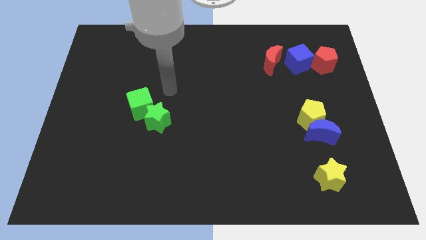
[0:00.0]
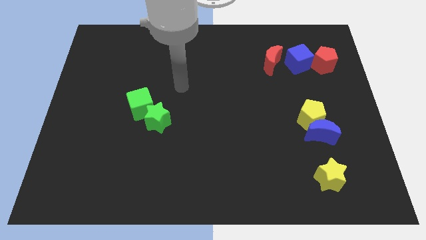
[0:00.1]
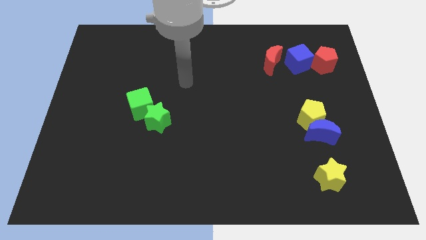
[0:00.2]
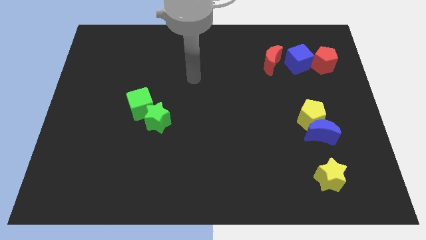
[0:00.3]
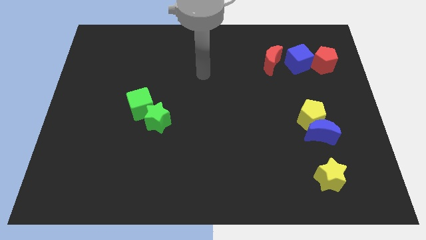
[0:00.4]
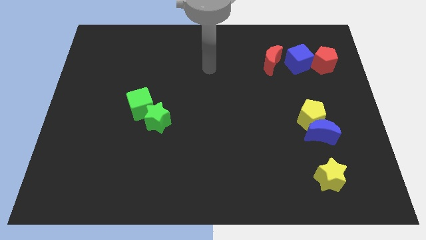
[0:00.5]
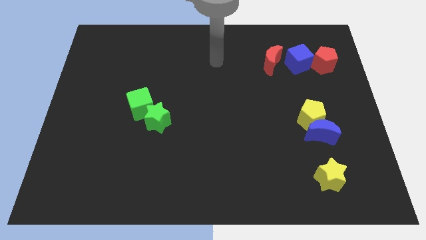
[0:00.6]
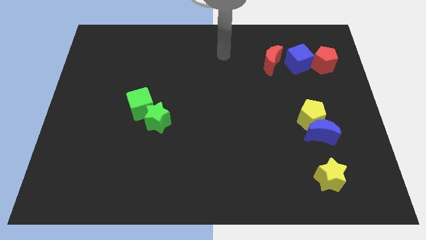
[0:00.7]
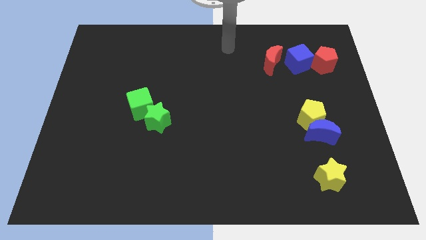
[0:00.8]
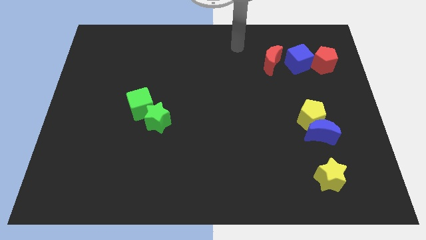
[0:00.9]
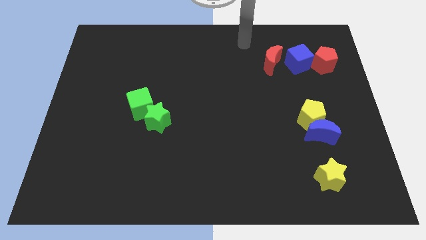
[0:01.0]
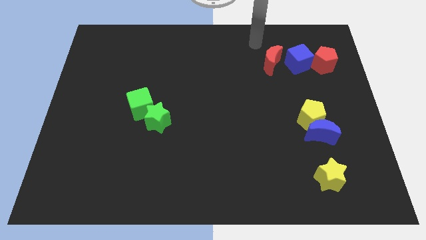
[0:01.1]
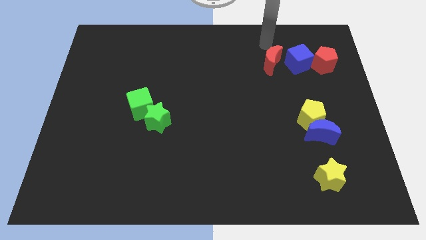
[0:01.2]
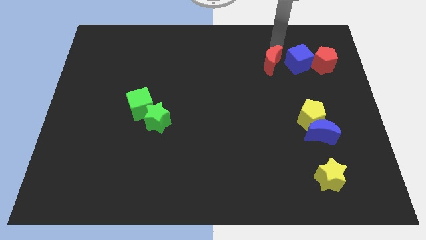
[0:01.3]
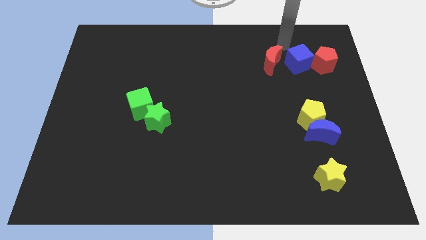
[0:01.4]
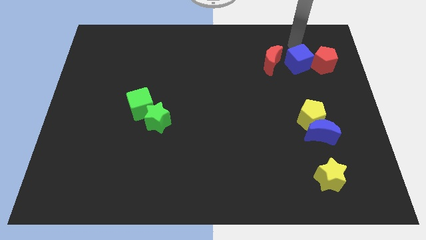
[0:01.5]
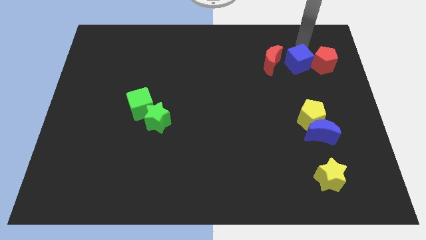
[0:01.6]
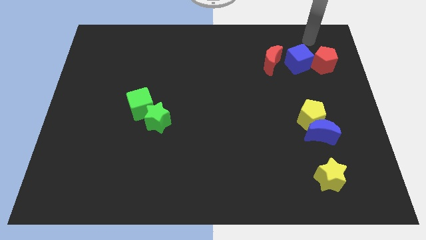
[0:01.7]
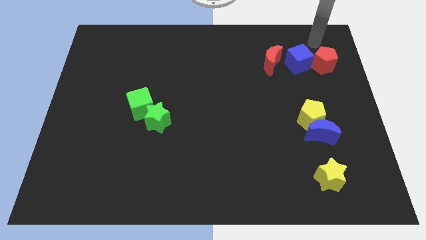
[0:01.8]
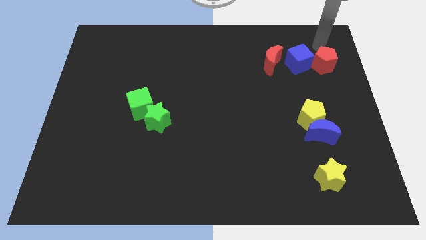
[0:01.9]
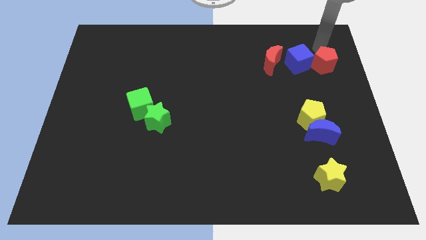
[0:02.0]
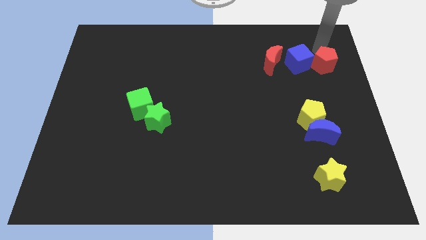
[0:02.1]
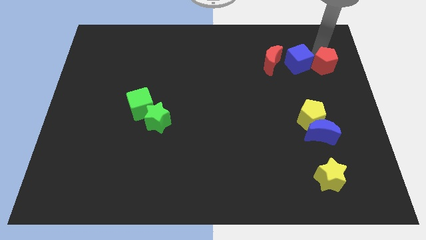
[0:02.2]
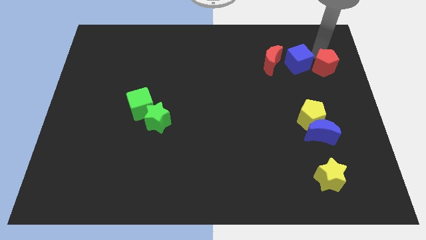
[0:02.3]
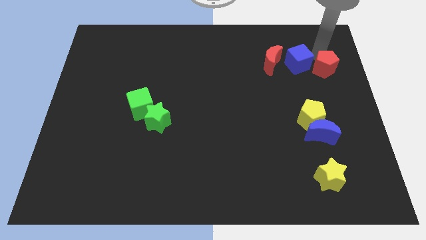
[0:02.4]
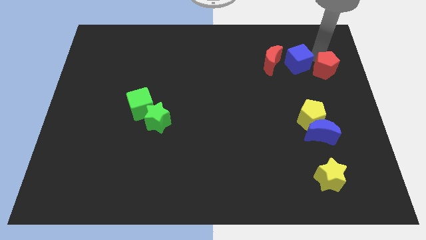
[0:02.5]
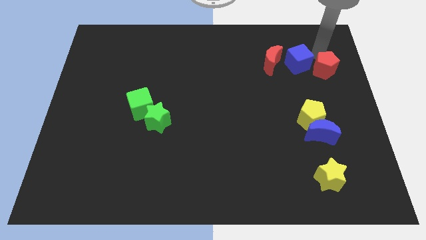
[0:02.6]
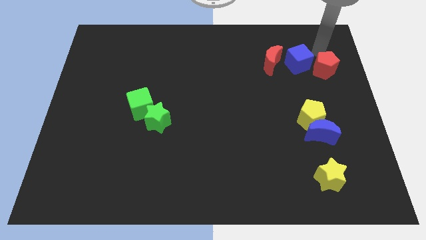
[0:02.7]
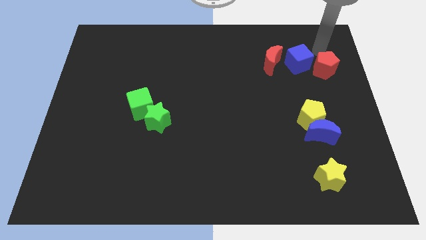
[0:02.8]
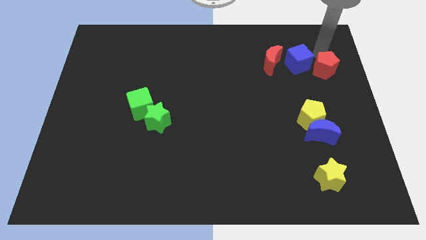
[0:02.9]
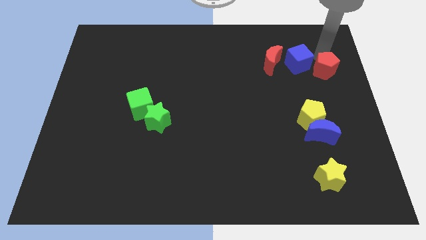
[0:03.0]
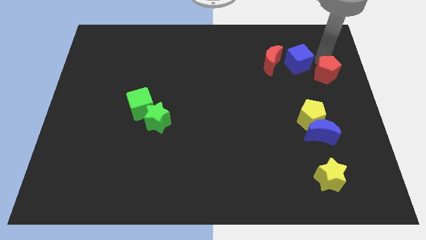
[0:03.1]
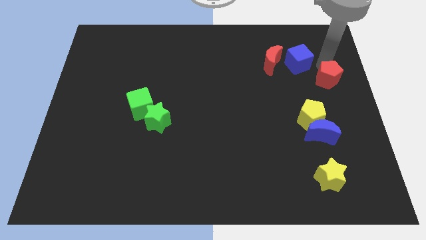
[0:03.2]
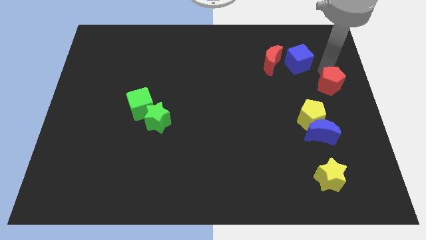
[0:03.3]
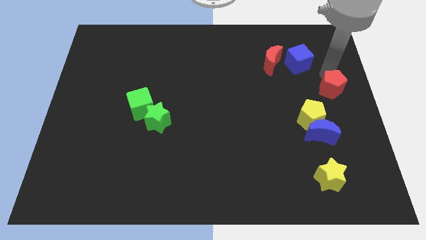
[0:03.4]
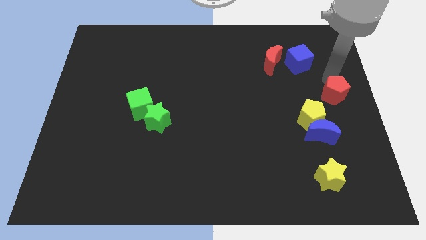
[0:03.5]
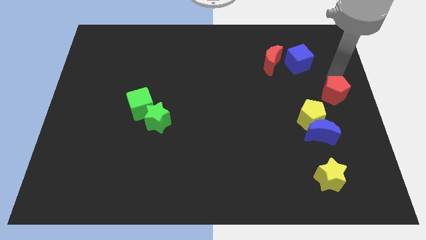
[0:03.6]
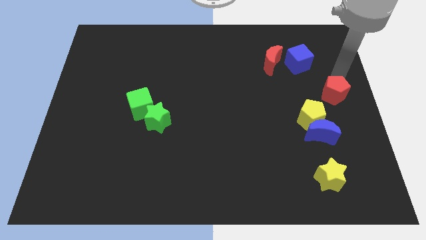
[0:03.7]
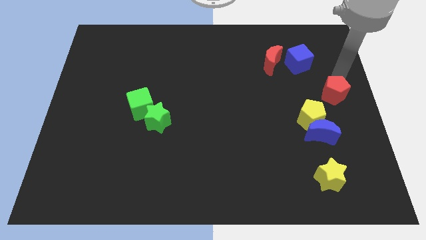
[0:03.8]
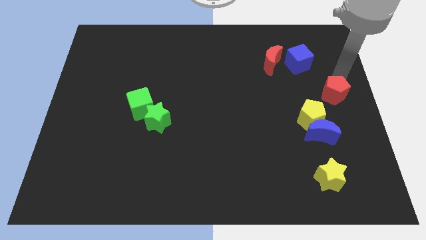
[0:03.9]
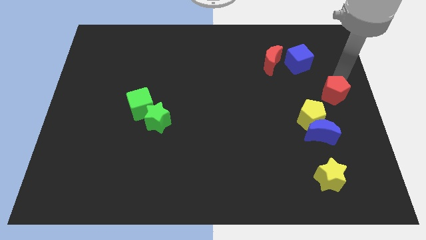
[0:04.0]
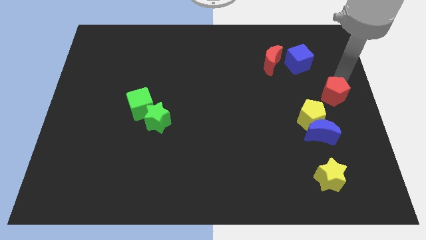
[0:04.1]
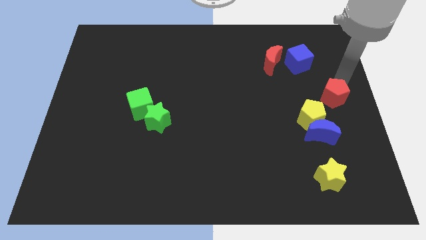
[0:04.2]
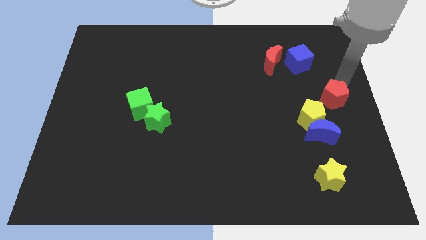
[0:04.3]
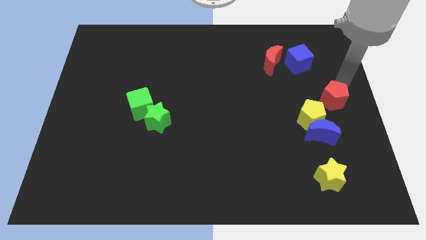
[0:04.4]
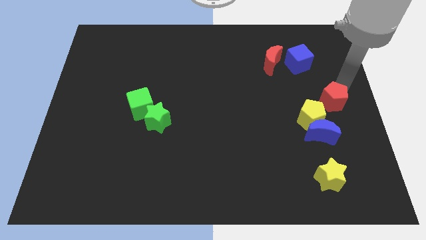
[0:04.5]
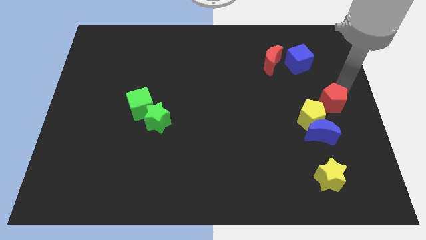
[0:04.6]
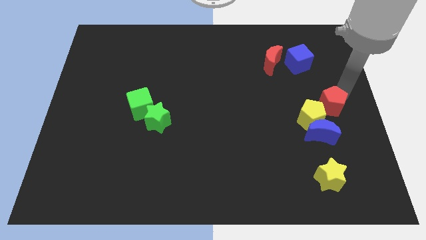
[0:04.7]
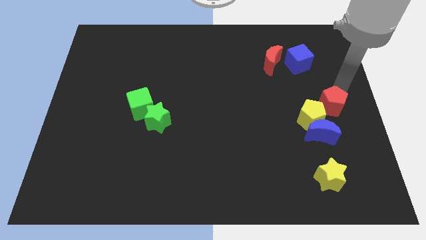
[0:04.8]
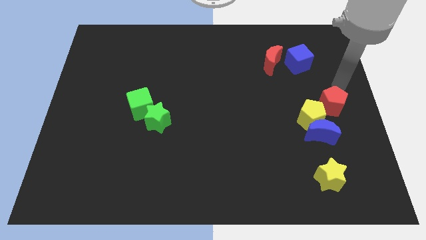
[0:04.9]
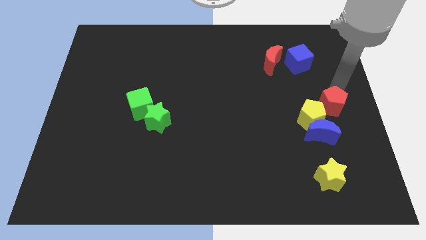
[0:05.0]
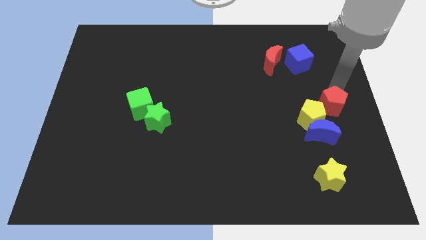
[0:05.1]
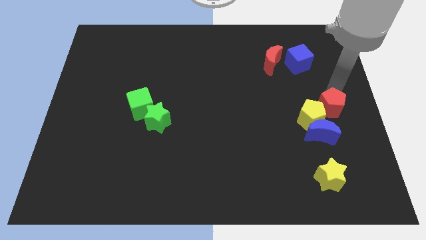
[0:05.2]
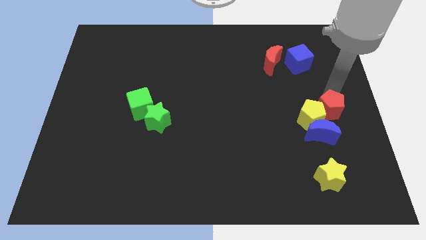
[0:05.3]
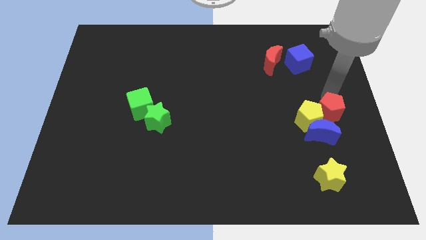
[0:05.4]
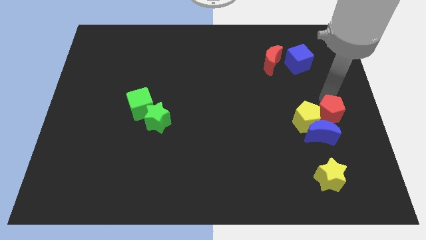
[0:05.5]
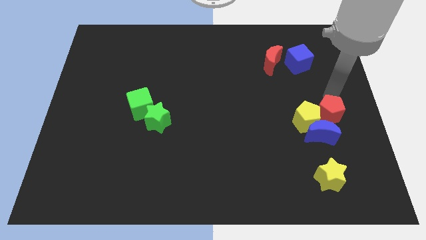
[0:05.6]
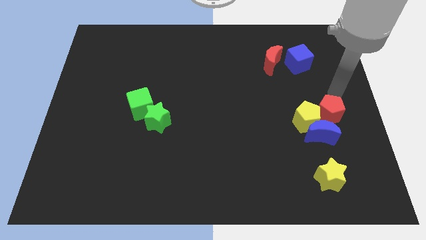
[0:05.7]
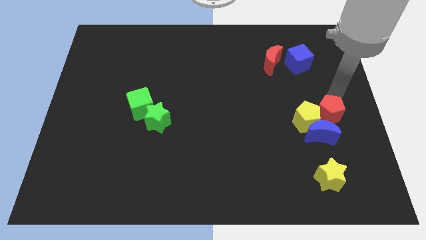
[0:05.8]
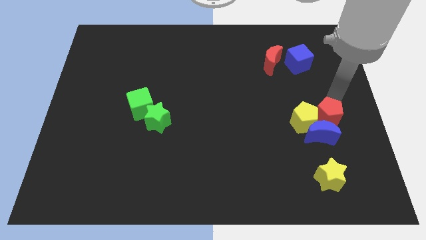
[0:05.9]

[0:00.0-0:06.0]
slide the red pentagon towards the blue moon

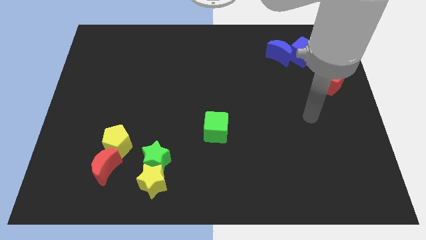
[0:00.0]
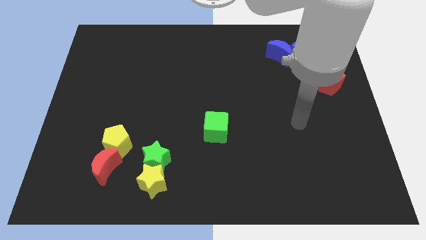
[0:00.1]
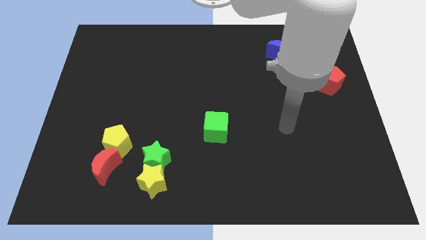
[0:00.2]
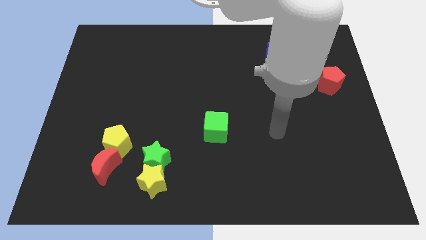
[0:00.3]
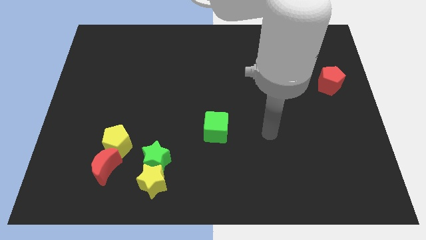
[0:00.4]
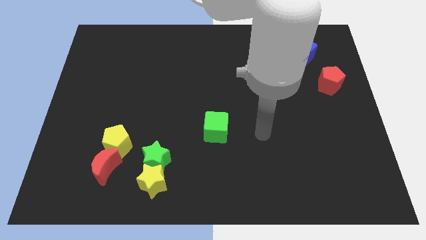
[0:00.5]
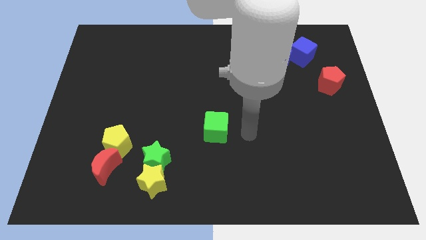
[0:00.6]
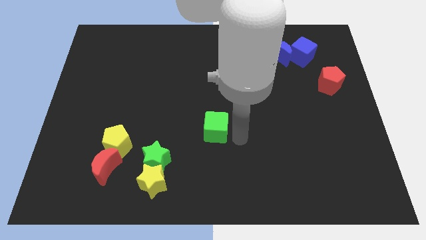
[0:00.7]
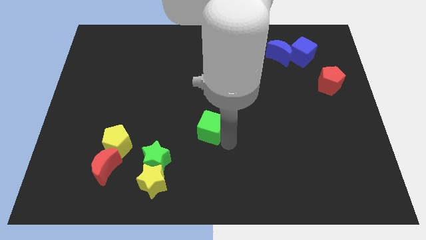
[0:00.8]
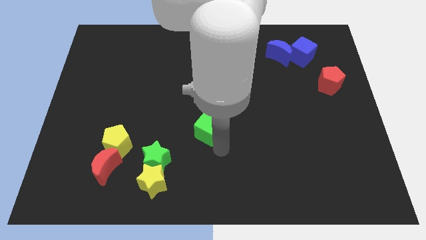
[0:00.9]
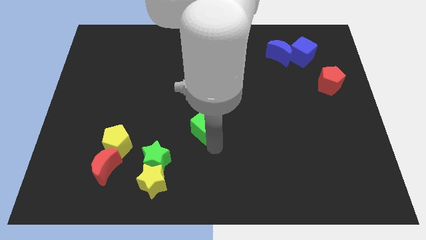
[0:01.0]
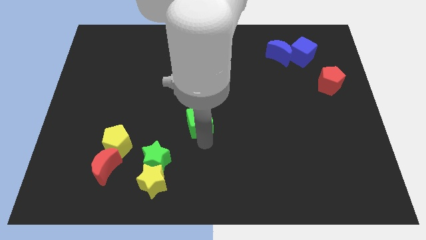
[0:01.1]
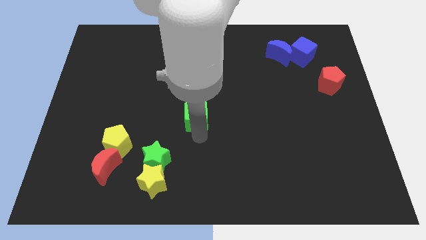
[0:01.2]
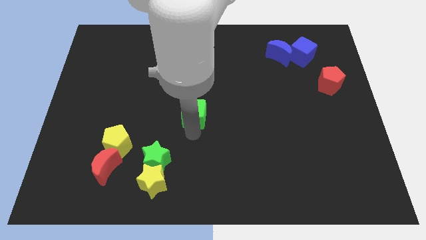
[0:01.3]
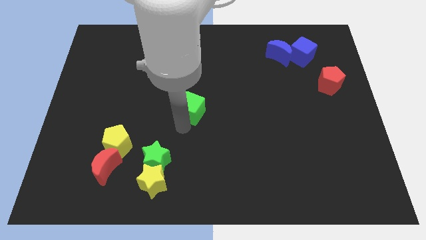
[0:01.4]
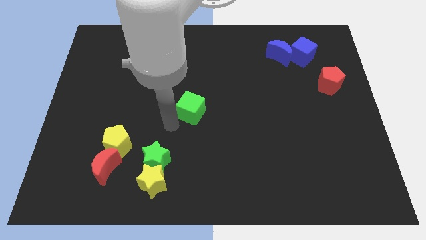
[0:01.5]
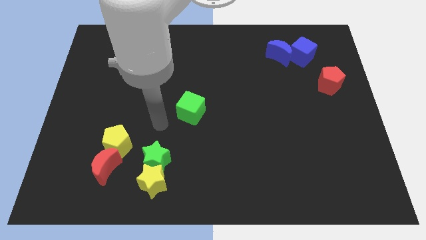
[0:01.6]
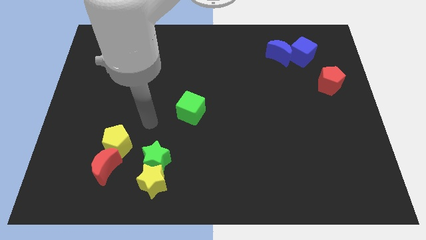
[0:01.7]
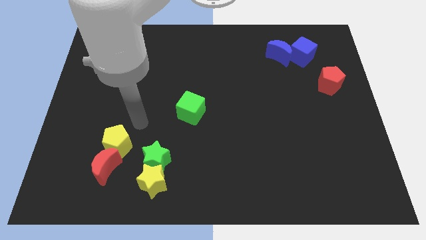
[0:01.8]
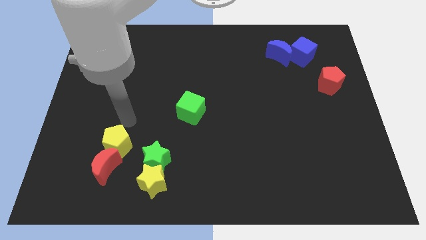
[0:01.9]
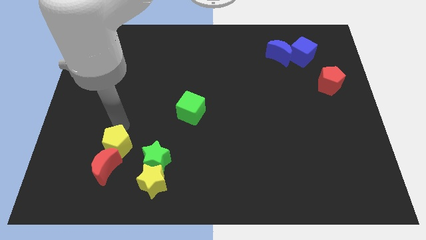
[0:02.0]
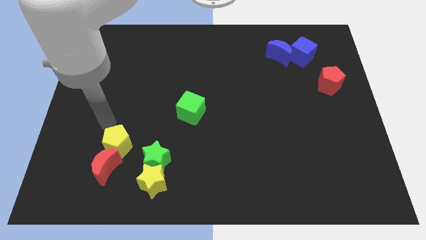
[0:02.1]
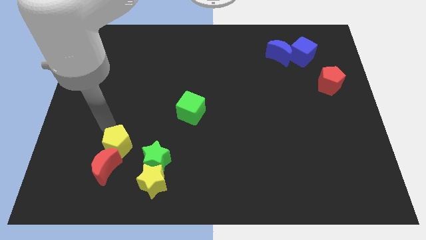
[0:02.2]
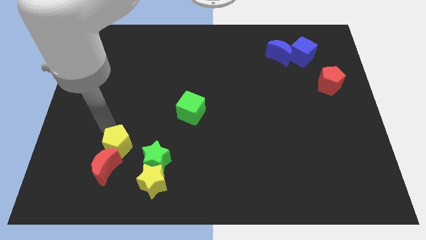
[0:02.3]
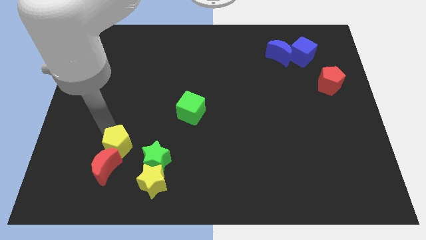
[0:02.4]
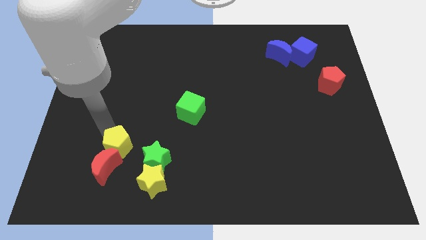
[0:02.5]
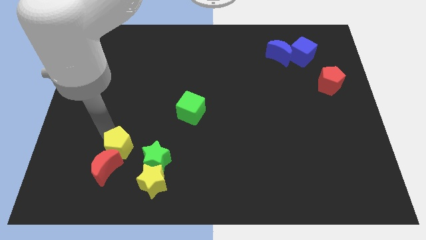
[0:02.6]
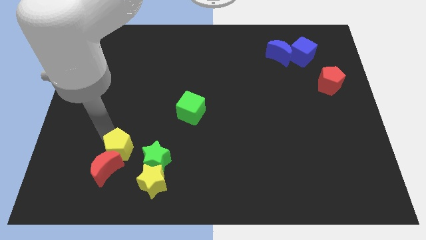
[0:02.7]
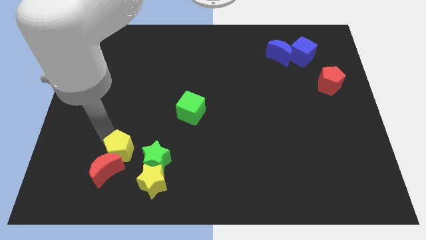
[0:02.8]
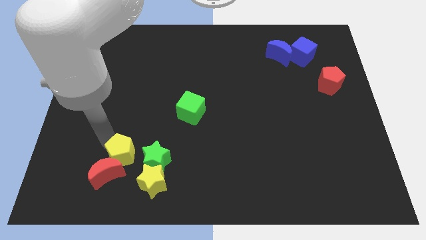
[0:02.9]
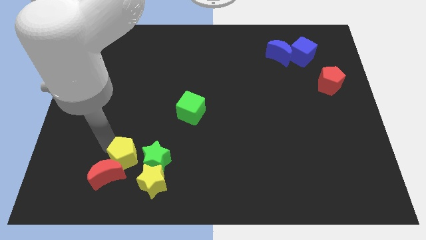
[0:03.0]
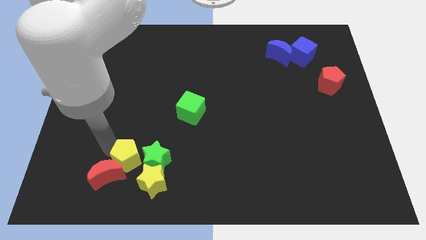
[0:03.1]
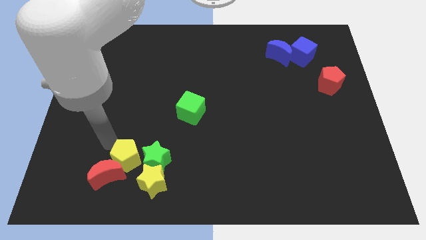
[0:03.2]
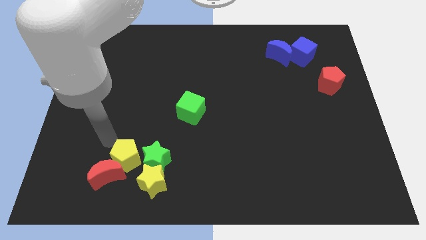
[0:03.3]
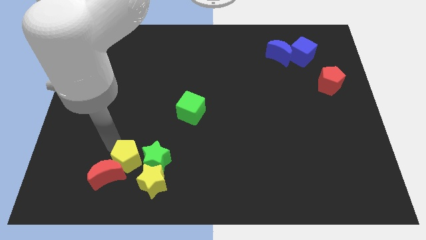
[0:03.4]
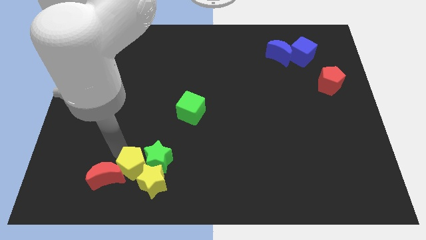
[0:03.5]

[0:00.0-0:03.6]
put the yellow pentagon towards the yellow star
